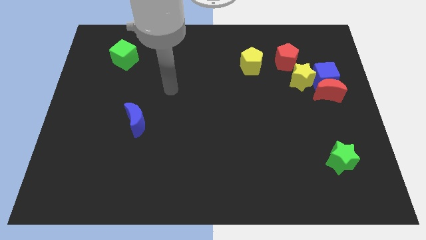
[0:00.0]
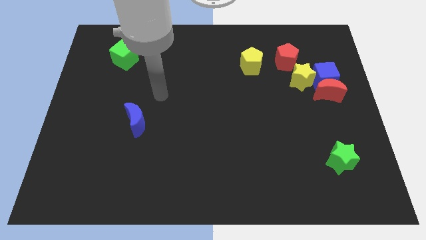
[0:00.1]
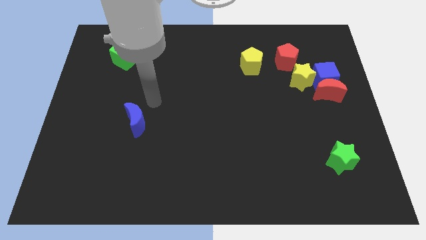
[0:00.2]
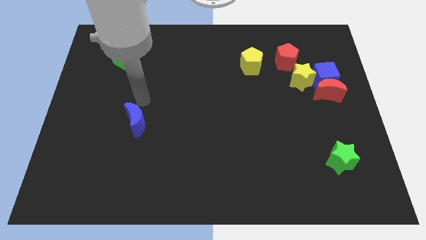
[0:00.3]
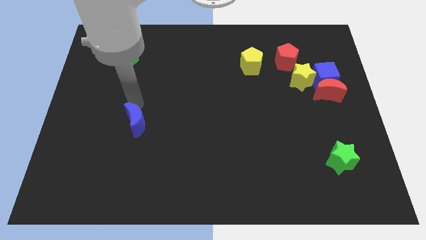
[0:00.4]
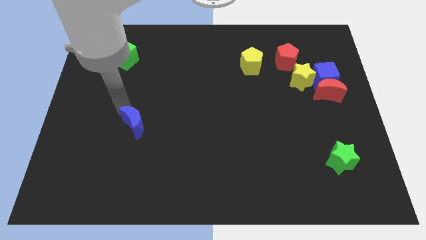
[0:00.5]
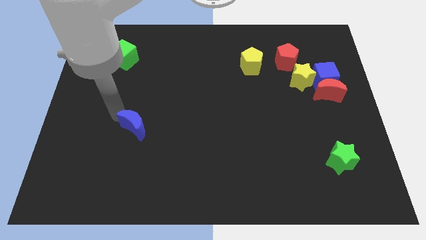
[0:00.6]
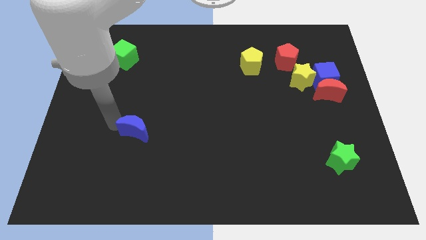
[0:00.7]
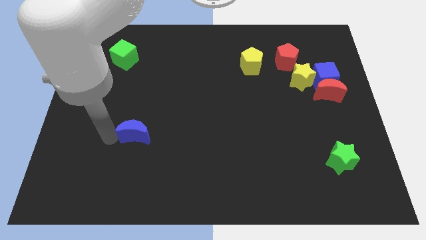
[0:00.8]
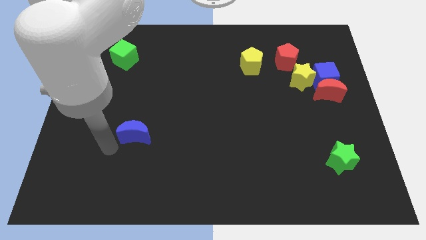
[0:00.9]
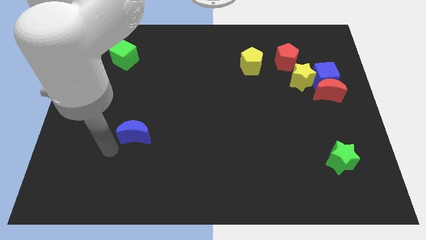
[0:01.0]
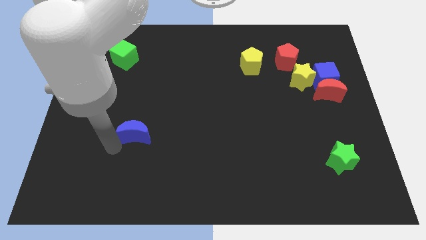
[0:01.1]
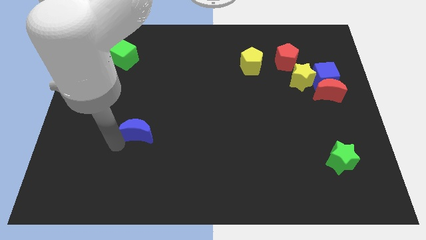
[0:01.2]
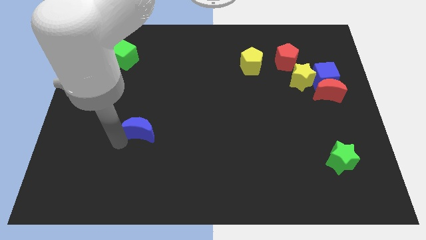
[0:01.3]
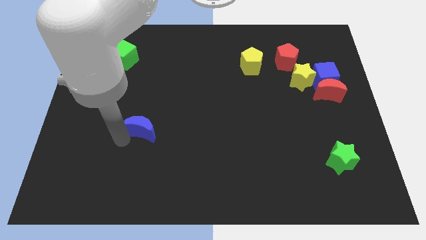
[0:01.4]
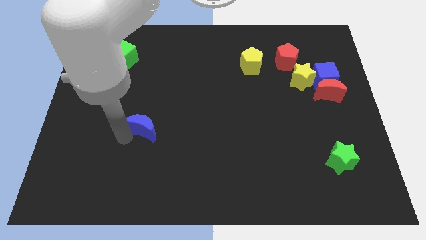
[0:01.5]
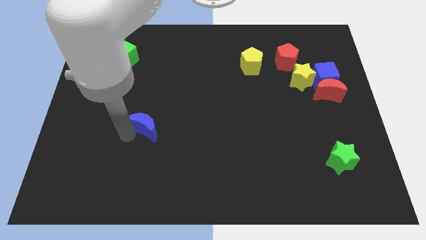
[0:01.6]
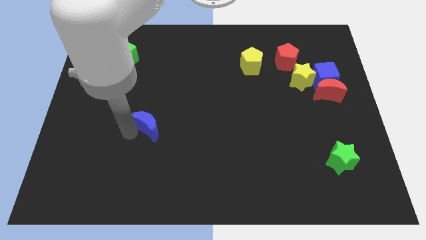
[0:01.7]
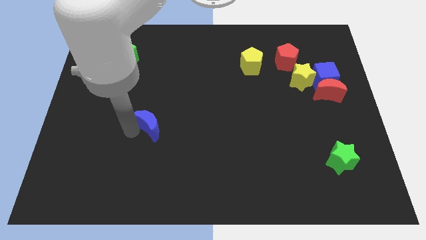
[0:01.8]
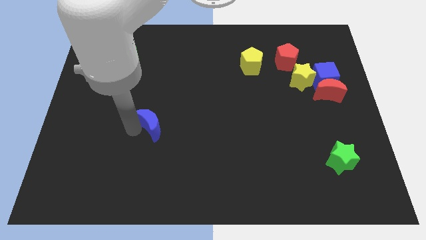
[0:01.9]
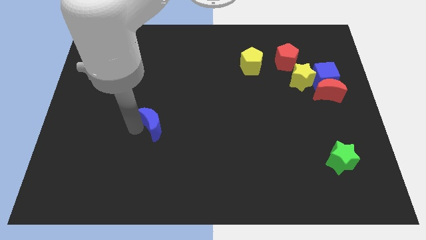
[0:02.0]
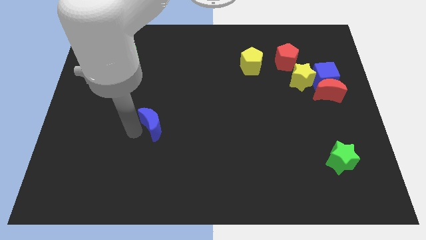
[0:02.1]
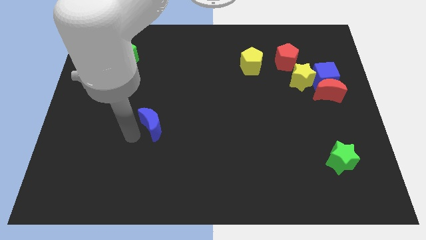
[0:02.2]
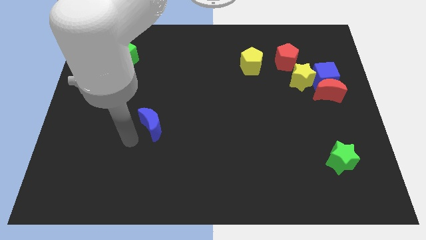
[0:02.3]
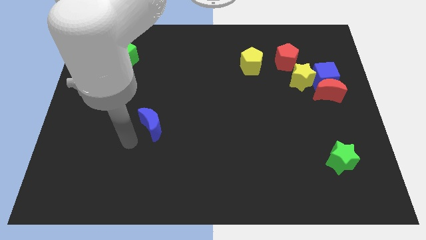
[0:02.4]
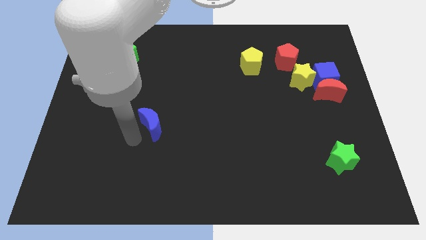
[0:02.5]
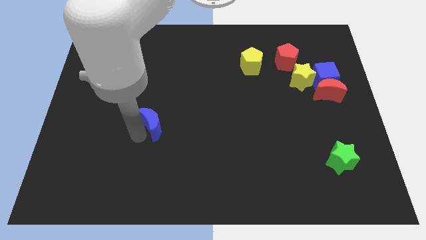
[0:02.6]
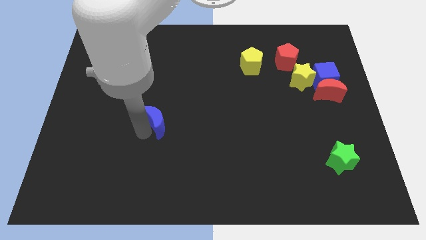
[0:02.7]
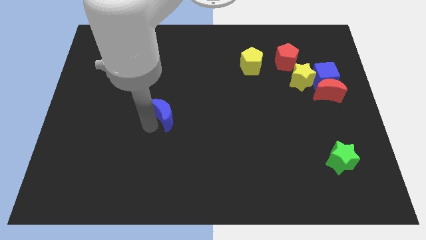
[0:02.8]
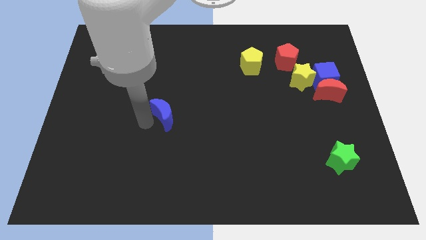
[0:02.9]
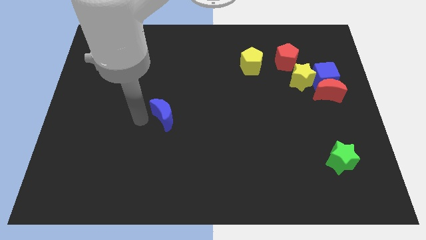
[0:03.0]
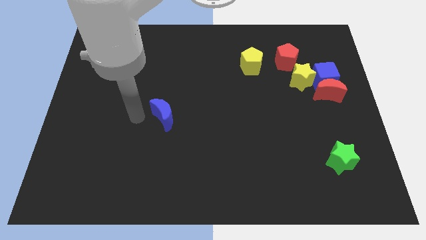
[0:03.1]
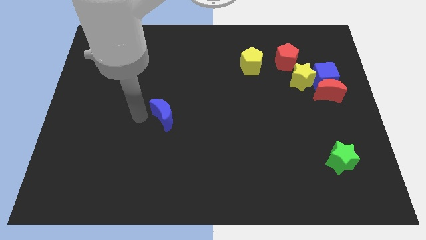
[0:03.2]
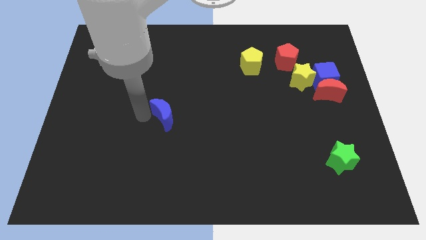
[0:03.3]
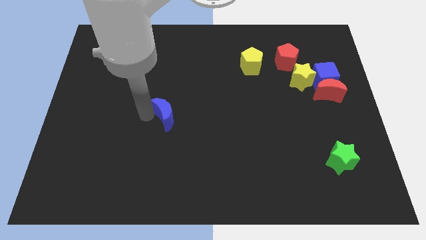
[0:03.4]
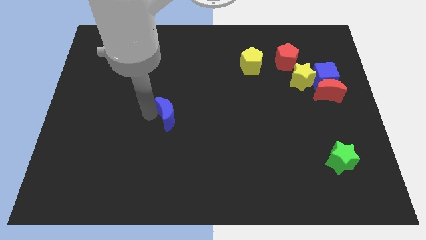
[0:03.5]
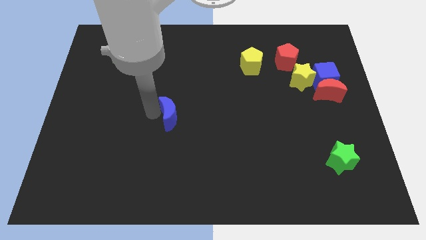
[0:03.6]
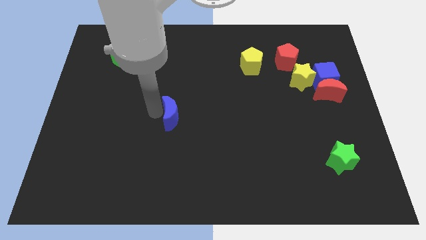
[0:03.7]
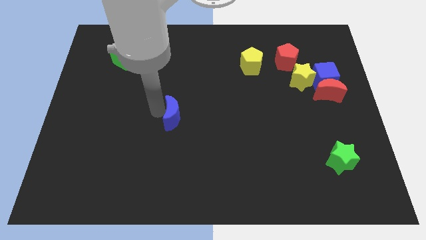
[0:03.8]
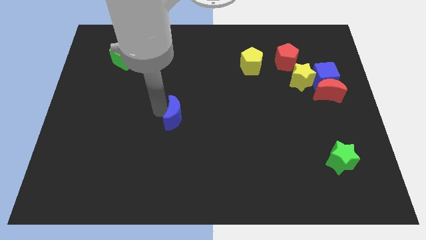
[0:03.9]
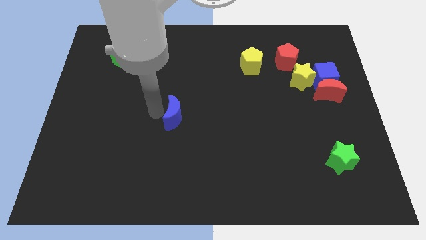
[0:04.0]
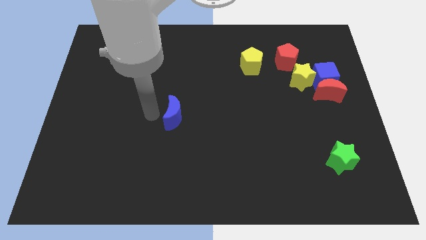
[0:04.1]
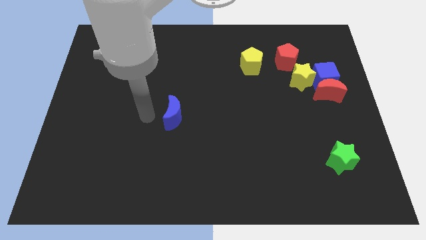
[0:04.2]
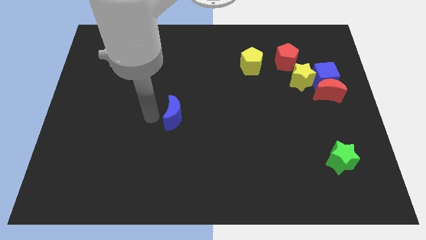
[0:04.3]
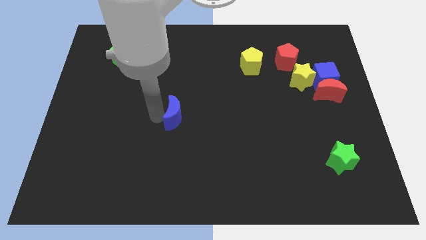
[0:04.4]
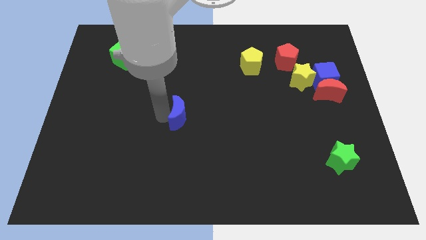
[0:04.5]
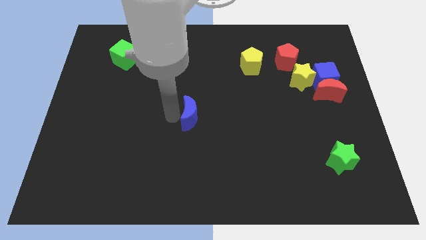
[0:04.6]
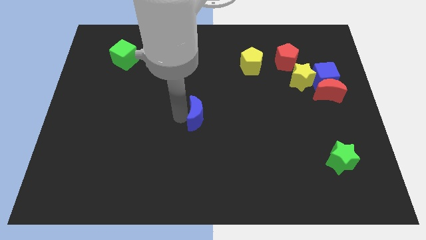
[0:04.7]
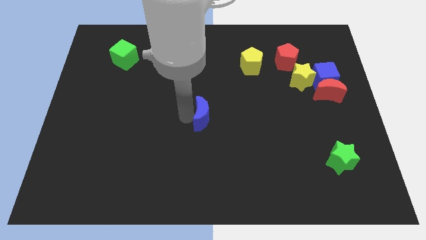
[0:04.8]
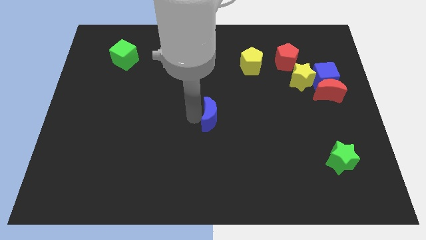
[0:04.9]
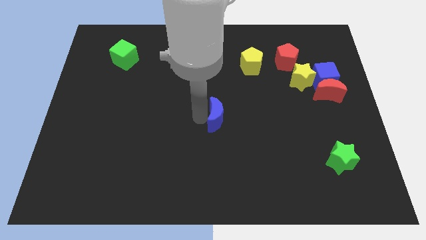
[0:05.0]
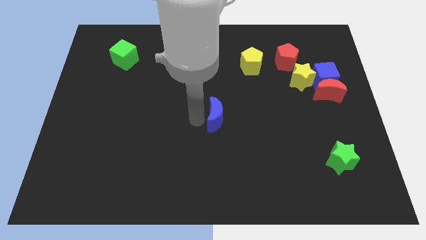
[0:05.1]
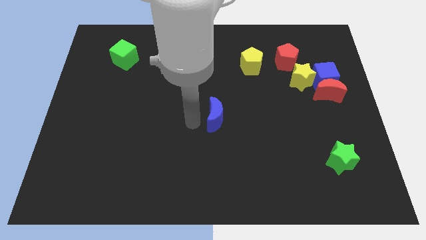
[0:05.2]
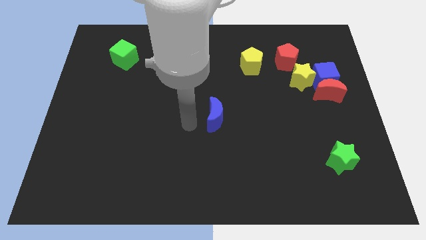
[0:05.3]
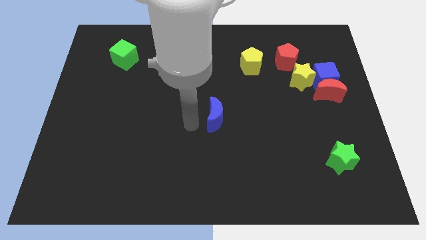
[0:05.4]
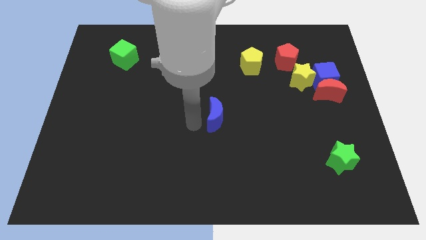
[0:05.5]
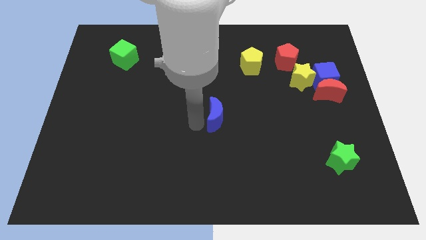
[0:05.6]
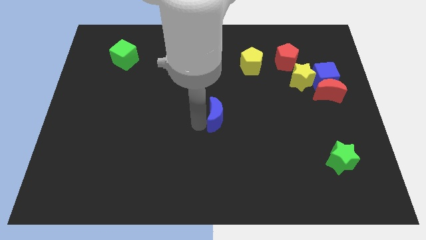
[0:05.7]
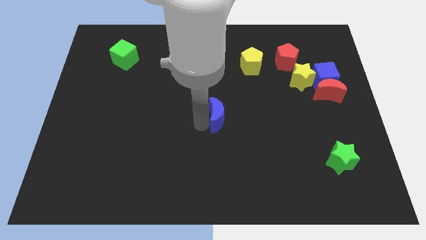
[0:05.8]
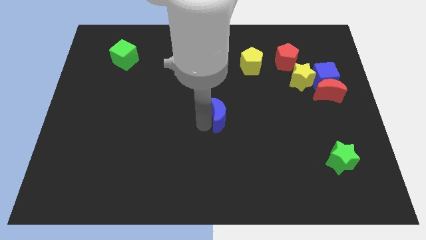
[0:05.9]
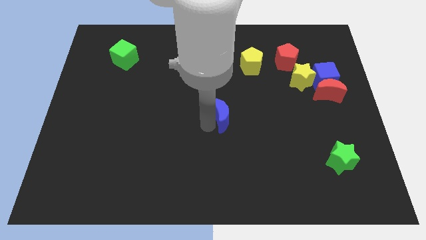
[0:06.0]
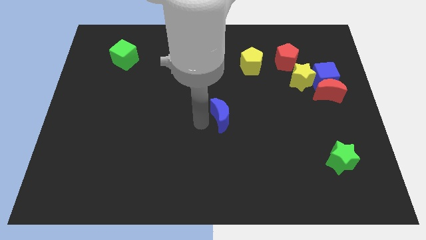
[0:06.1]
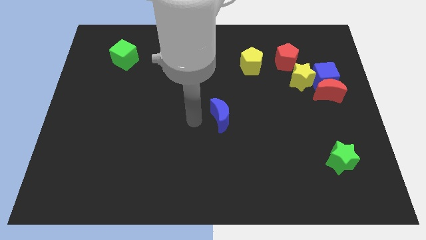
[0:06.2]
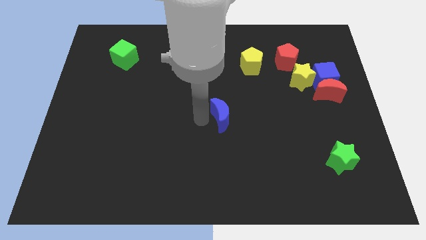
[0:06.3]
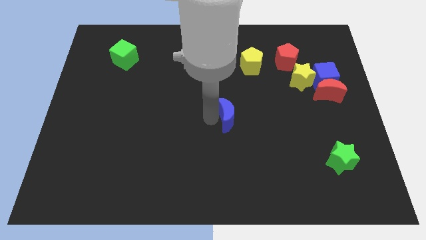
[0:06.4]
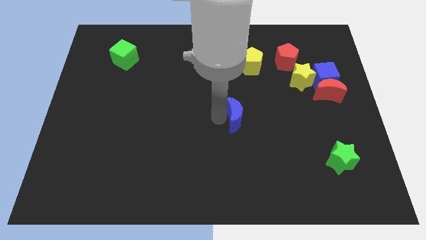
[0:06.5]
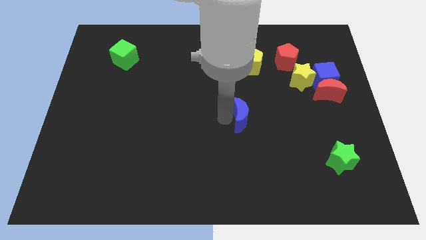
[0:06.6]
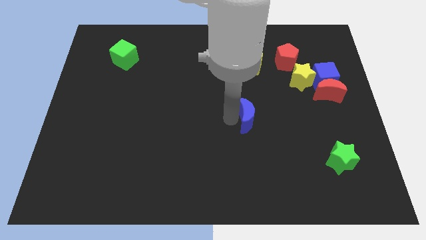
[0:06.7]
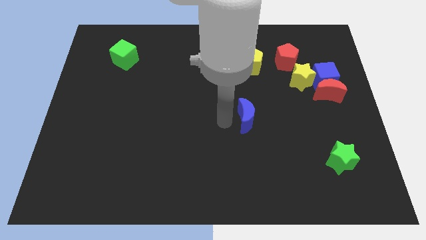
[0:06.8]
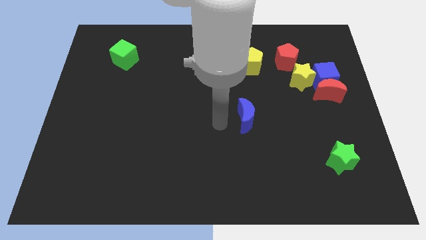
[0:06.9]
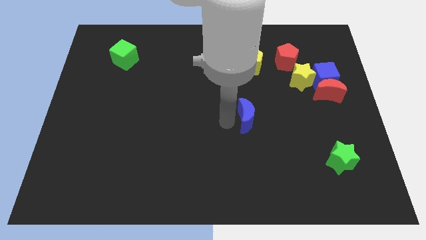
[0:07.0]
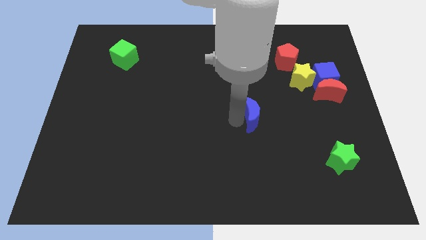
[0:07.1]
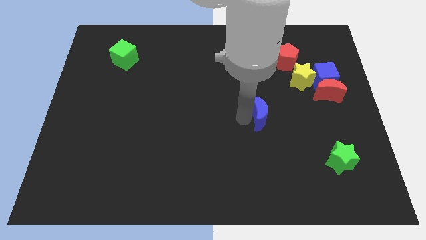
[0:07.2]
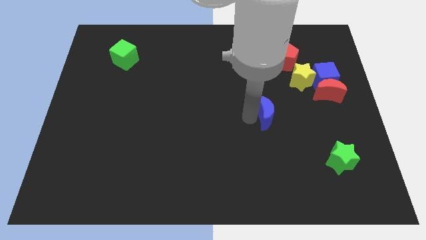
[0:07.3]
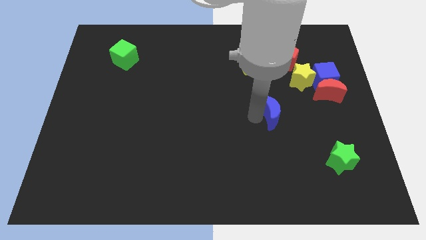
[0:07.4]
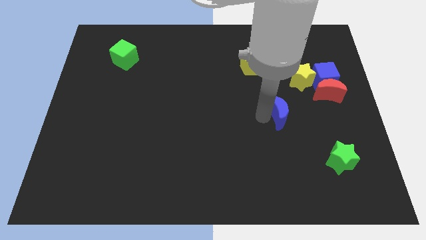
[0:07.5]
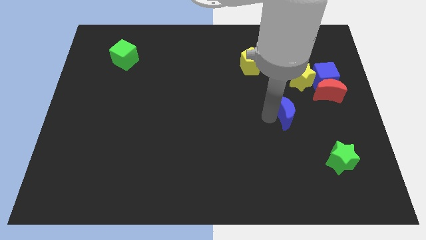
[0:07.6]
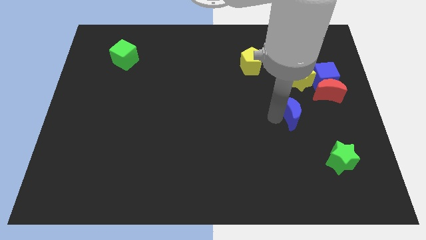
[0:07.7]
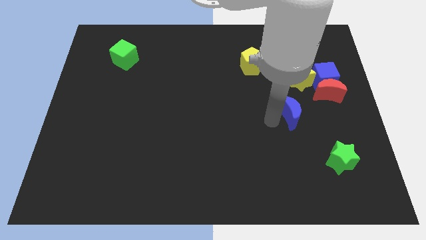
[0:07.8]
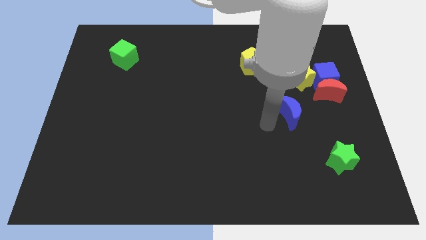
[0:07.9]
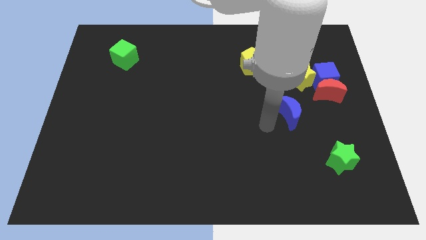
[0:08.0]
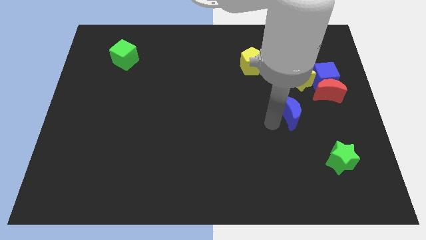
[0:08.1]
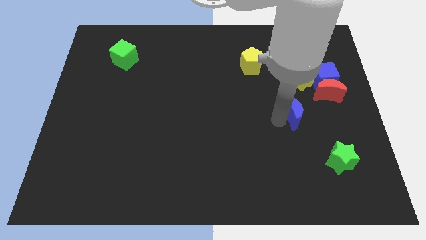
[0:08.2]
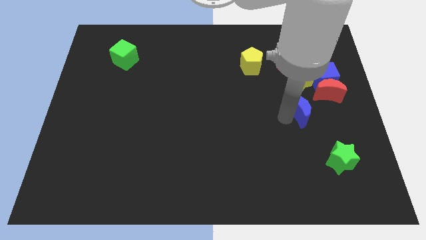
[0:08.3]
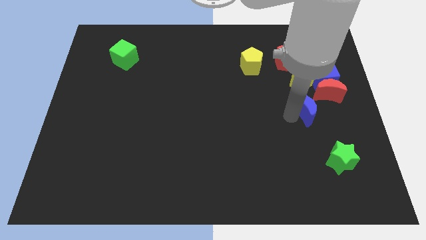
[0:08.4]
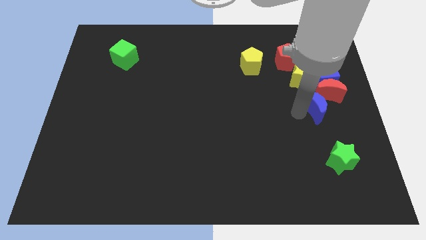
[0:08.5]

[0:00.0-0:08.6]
slide the blue moon next to the red moon
